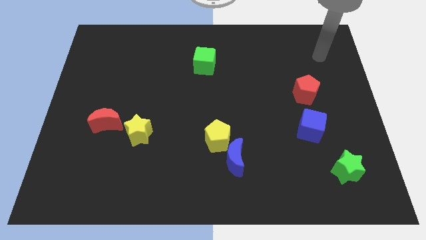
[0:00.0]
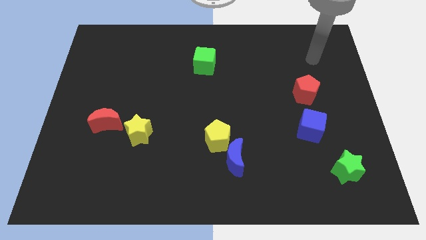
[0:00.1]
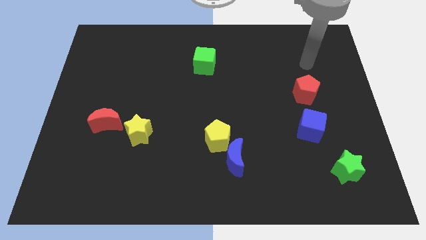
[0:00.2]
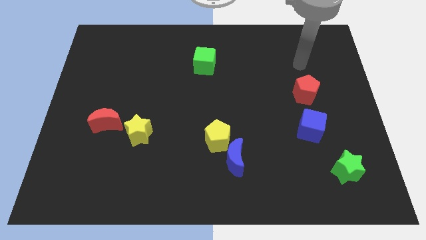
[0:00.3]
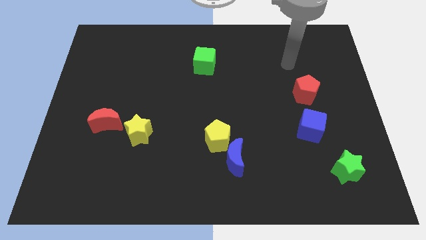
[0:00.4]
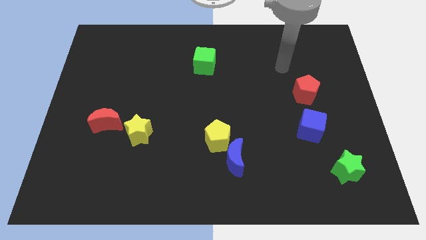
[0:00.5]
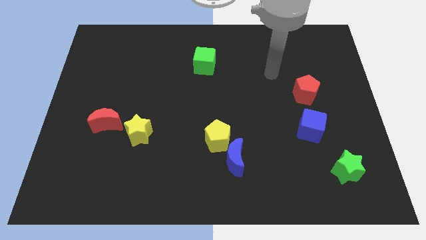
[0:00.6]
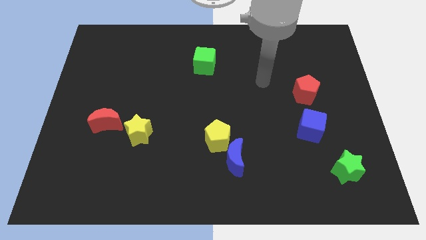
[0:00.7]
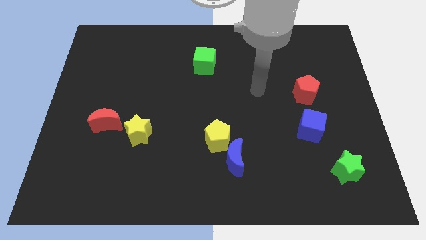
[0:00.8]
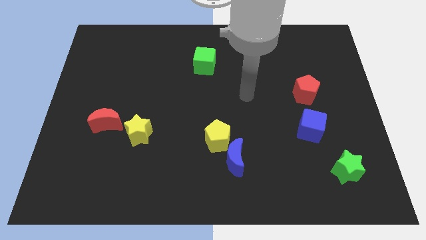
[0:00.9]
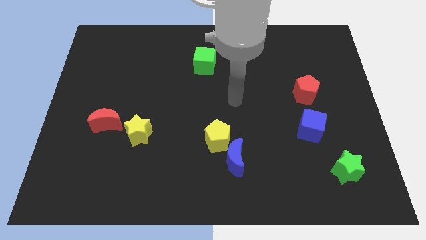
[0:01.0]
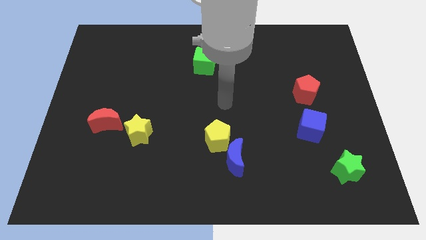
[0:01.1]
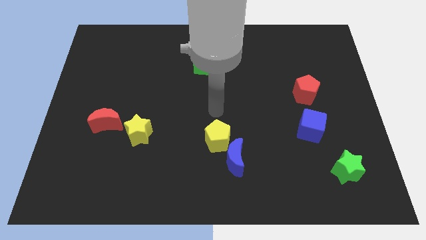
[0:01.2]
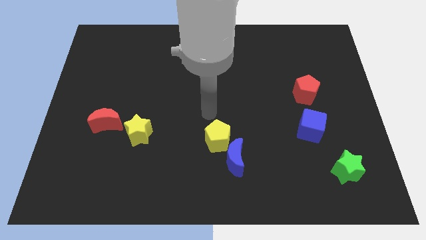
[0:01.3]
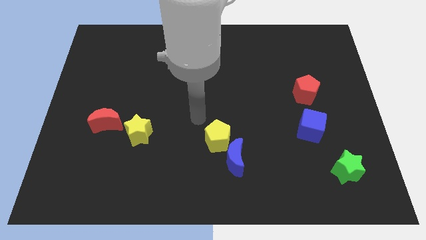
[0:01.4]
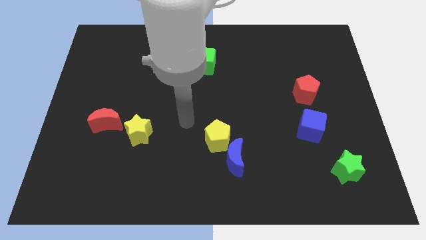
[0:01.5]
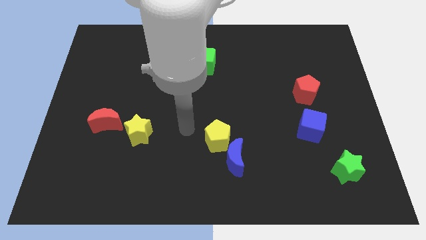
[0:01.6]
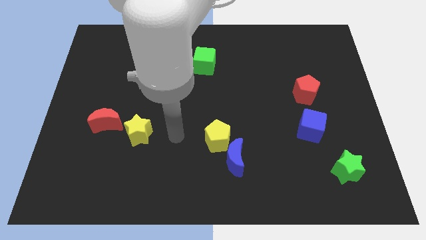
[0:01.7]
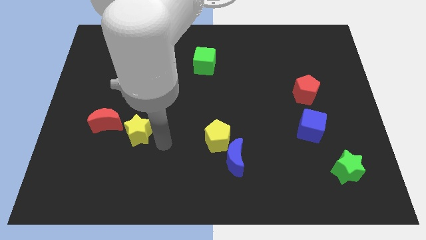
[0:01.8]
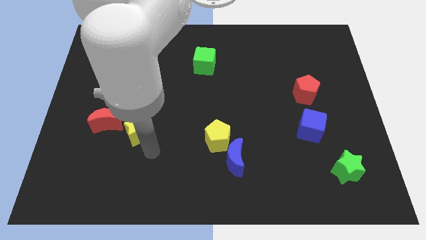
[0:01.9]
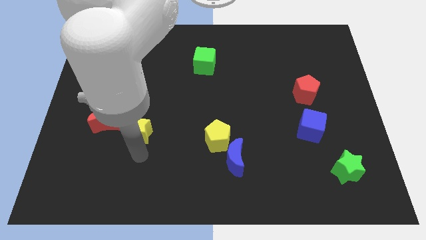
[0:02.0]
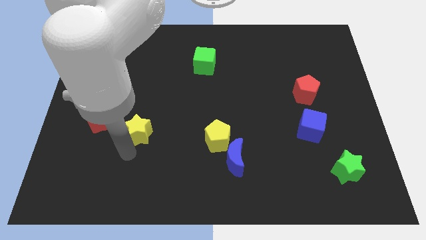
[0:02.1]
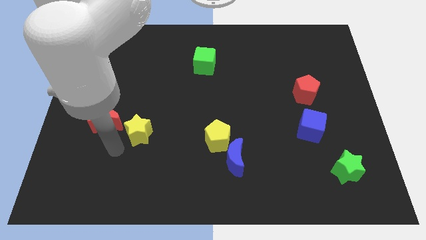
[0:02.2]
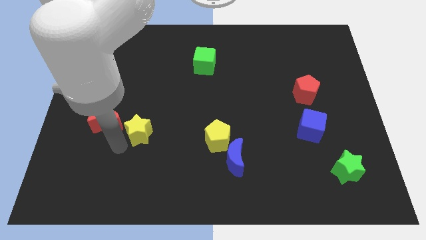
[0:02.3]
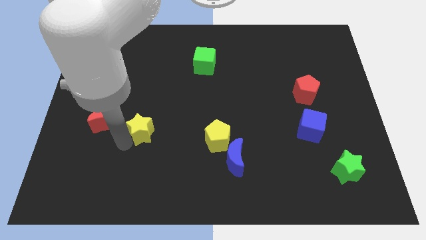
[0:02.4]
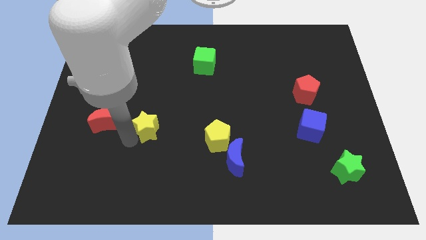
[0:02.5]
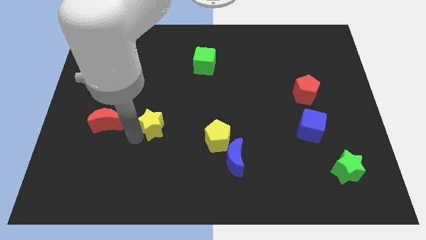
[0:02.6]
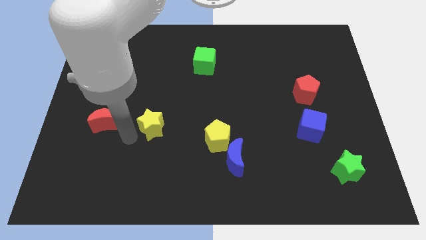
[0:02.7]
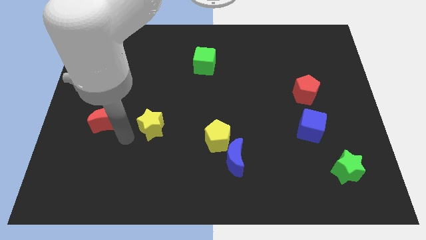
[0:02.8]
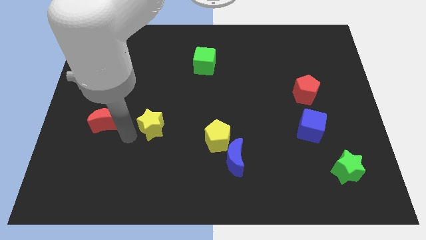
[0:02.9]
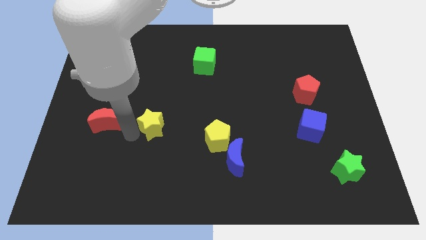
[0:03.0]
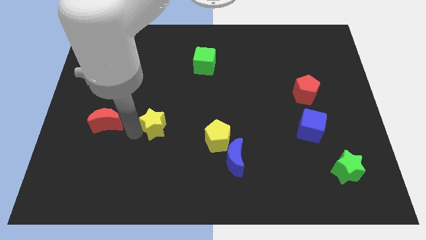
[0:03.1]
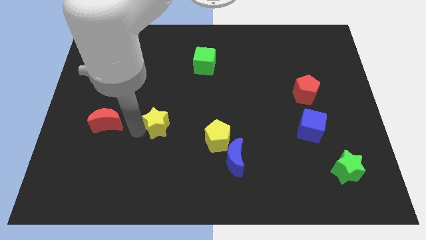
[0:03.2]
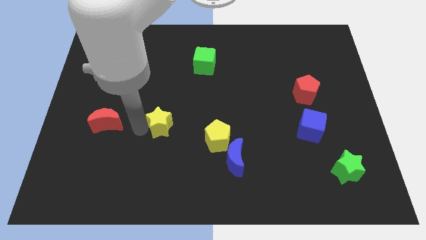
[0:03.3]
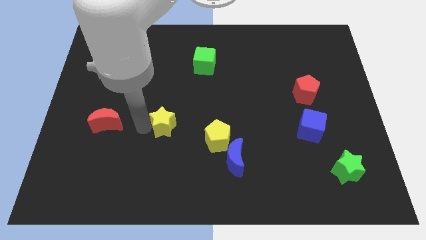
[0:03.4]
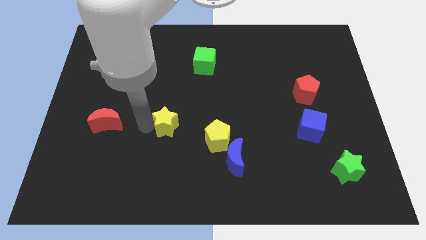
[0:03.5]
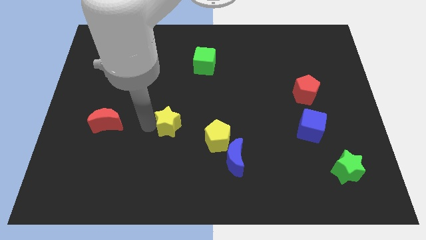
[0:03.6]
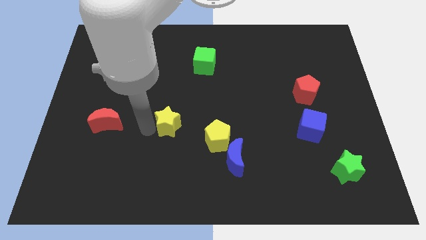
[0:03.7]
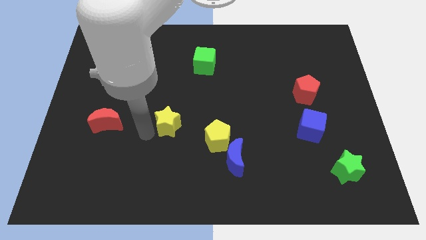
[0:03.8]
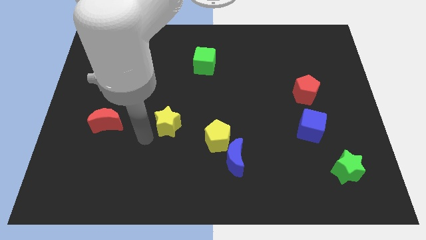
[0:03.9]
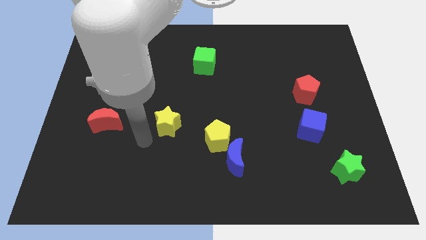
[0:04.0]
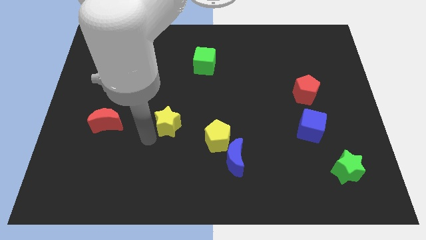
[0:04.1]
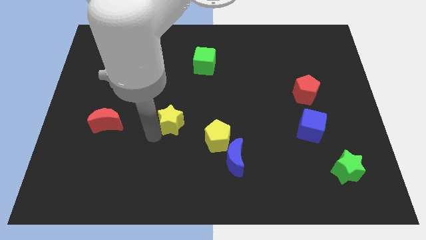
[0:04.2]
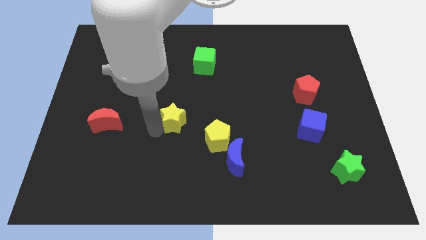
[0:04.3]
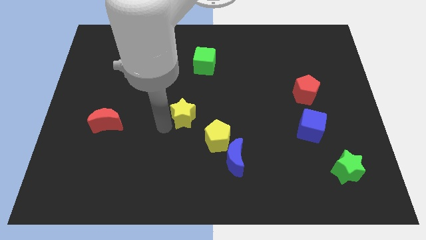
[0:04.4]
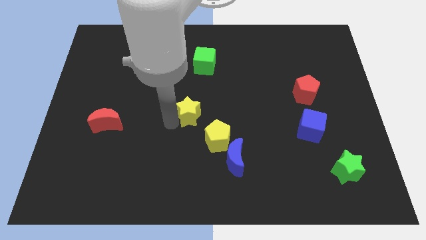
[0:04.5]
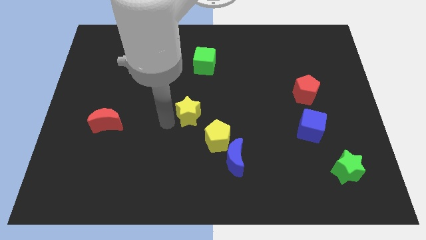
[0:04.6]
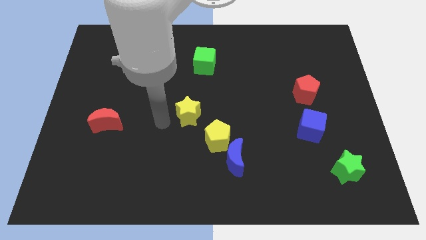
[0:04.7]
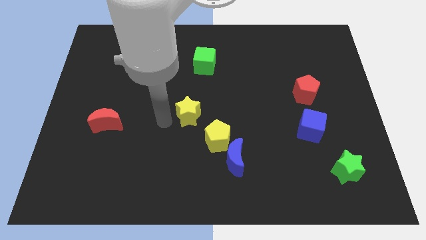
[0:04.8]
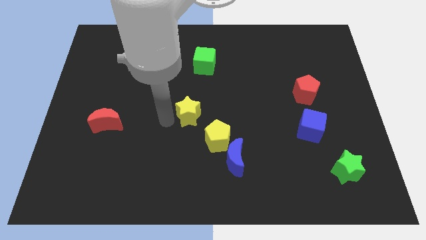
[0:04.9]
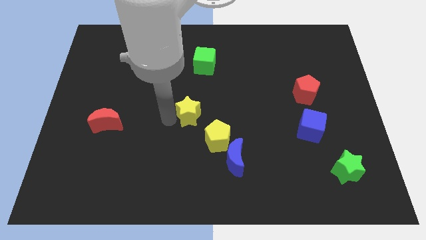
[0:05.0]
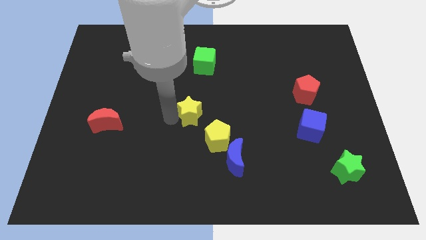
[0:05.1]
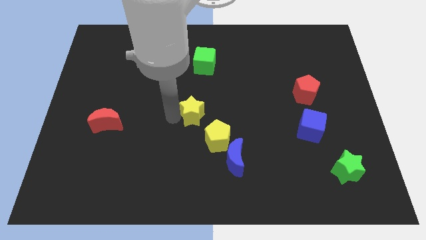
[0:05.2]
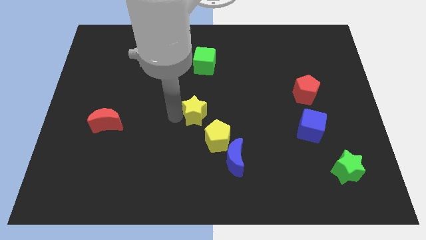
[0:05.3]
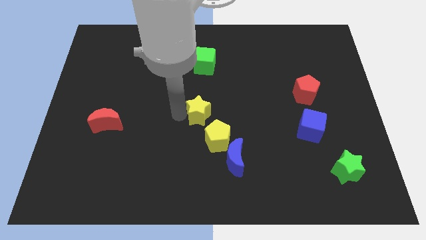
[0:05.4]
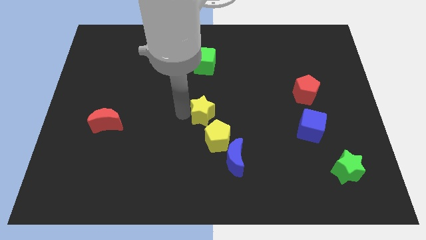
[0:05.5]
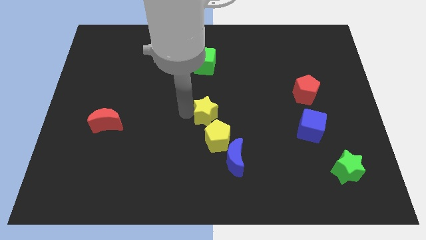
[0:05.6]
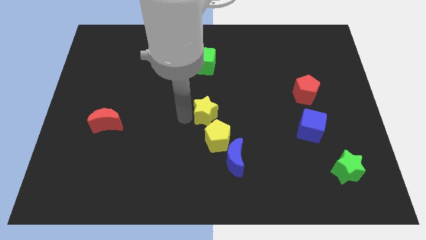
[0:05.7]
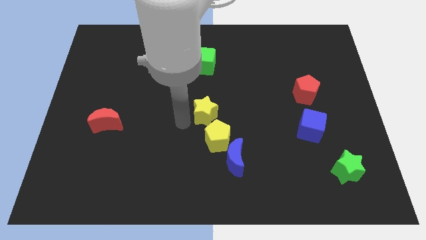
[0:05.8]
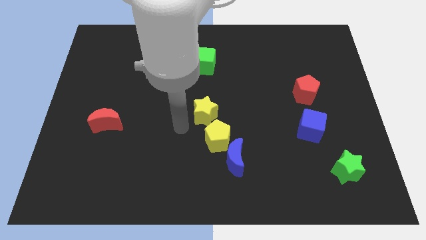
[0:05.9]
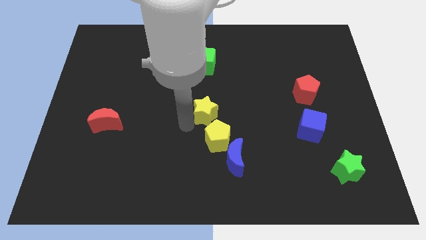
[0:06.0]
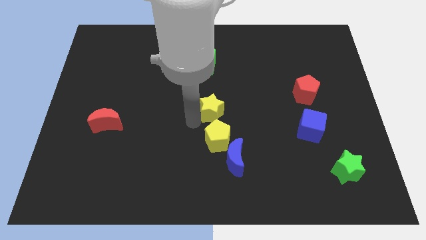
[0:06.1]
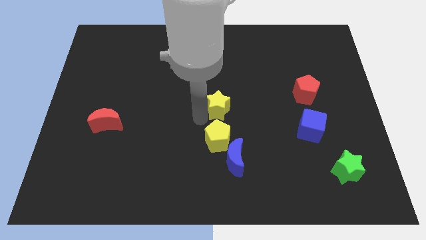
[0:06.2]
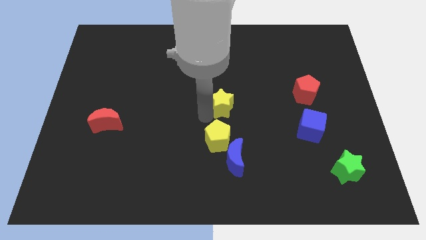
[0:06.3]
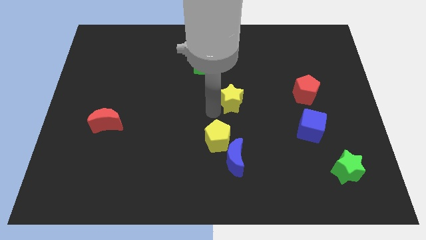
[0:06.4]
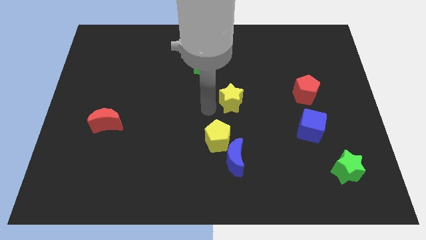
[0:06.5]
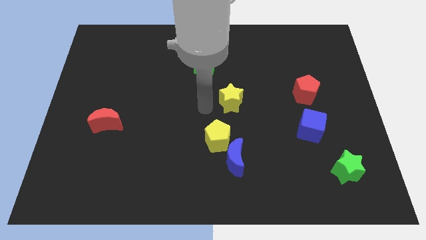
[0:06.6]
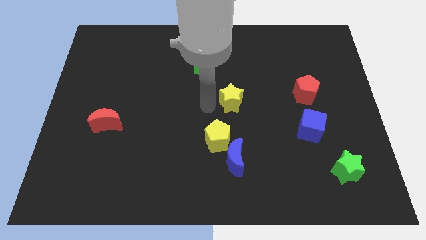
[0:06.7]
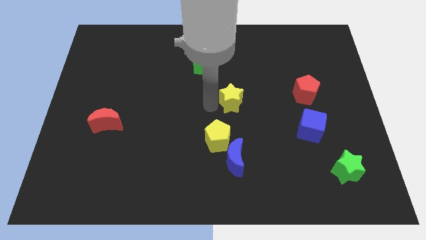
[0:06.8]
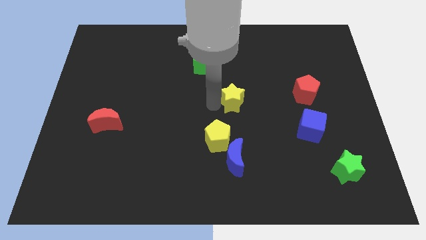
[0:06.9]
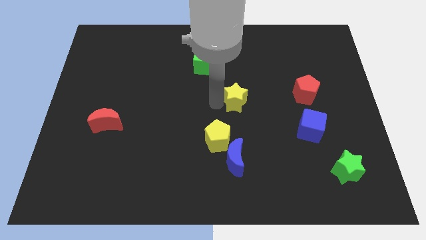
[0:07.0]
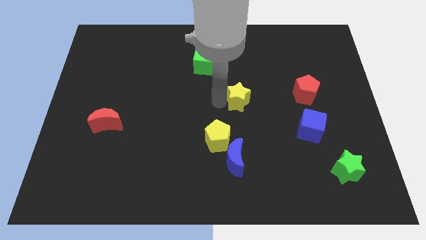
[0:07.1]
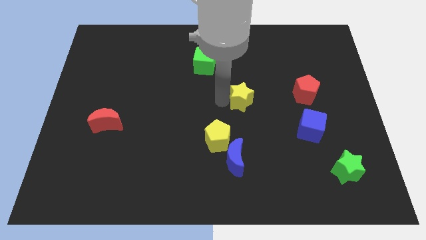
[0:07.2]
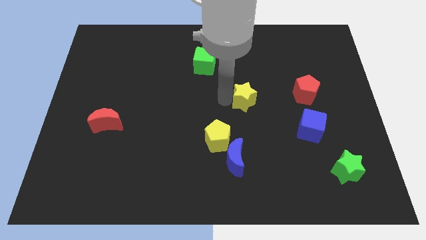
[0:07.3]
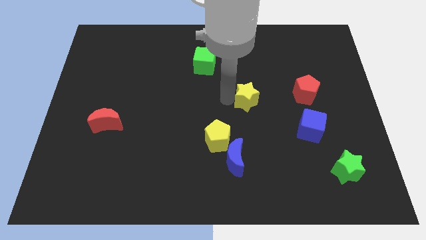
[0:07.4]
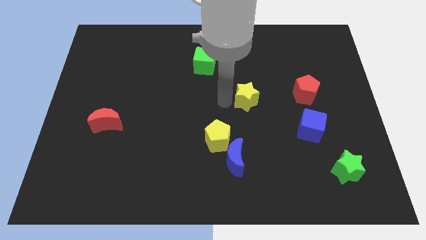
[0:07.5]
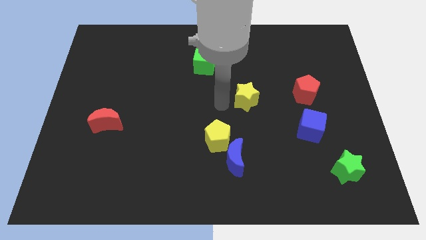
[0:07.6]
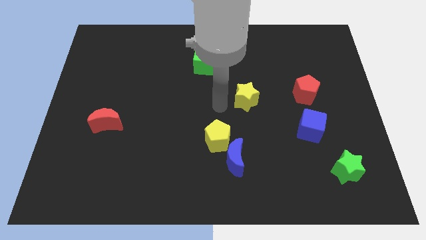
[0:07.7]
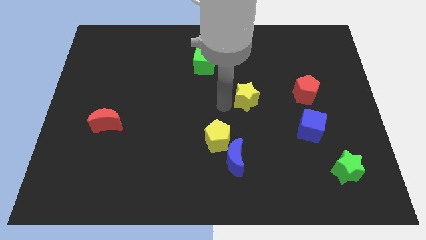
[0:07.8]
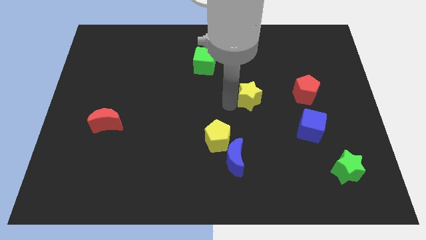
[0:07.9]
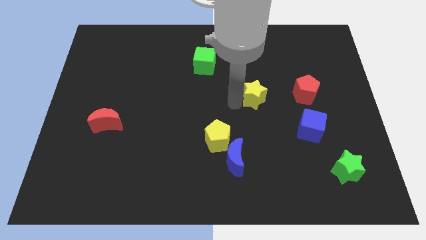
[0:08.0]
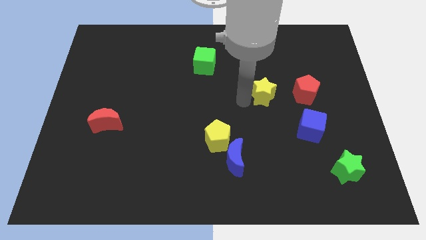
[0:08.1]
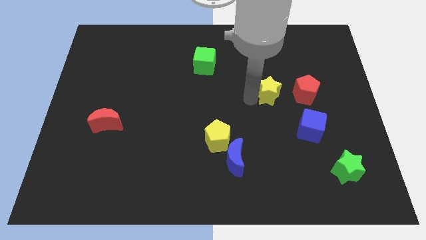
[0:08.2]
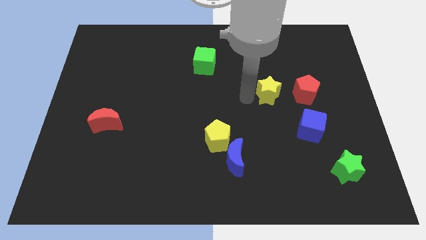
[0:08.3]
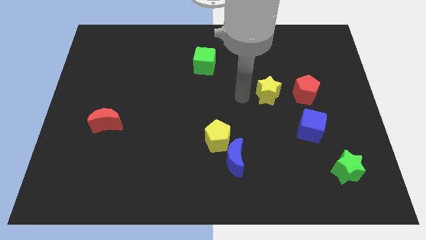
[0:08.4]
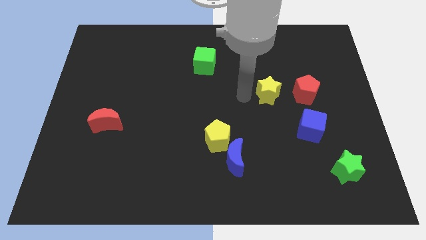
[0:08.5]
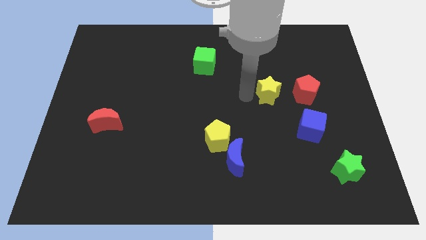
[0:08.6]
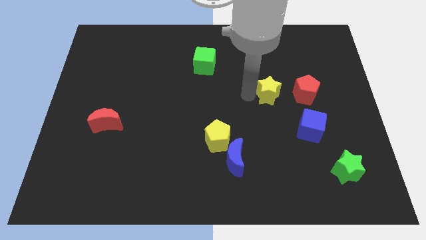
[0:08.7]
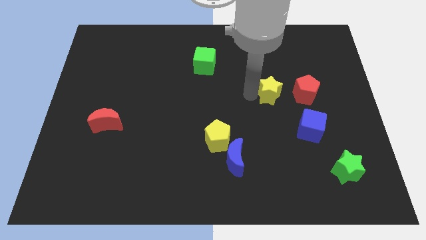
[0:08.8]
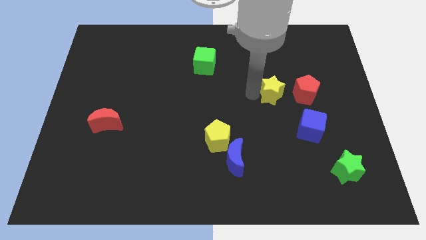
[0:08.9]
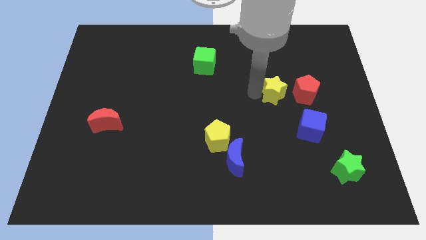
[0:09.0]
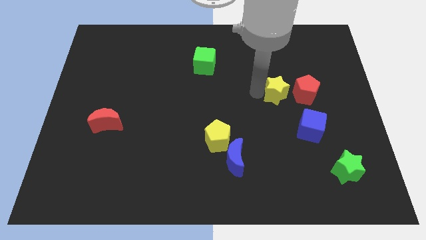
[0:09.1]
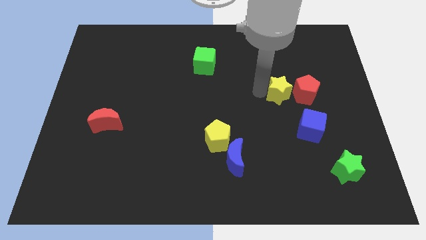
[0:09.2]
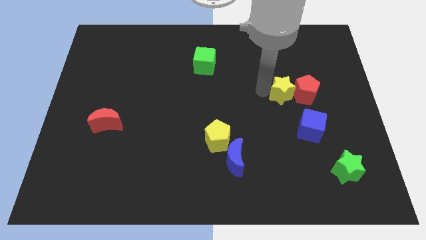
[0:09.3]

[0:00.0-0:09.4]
push the yellow star to the red pentagon
